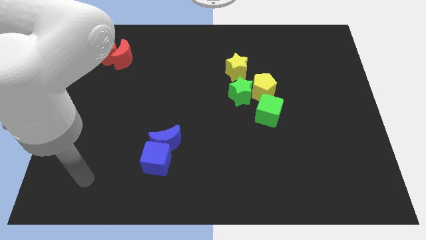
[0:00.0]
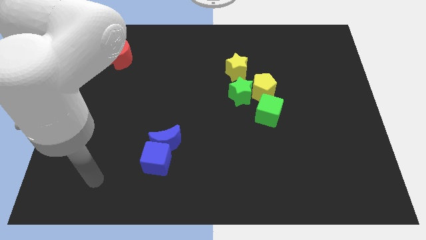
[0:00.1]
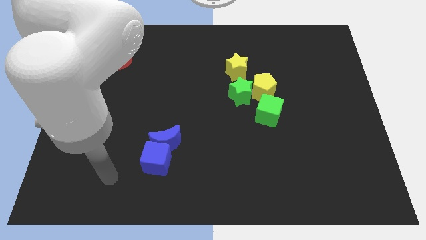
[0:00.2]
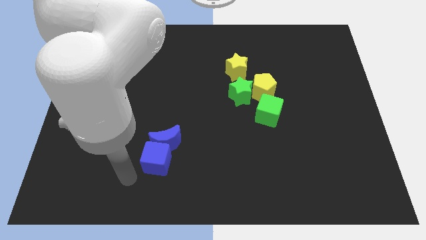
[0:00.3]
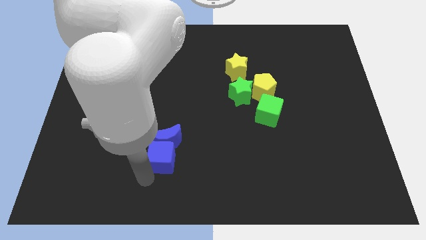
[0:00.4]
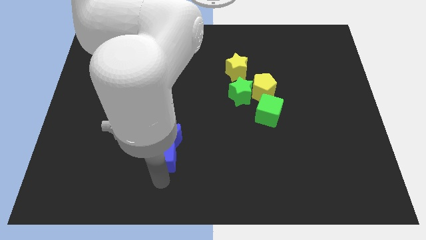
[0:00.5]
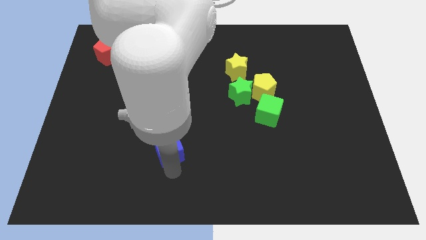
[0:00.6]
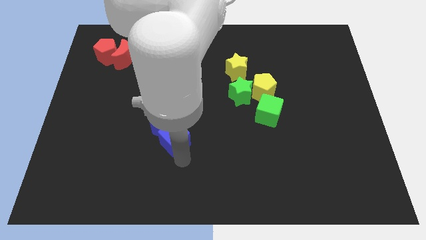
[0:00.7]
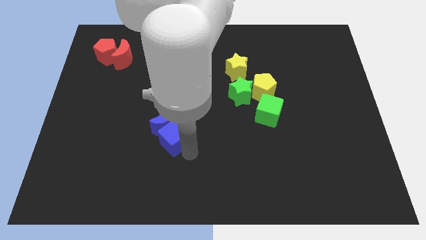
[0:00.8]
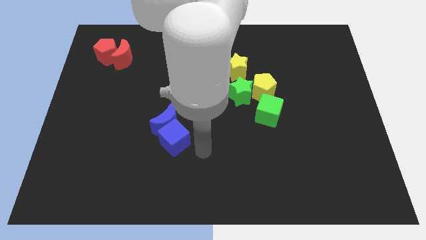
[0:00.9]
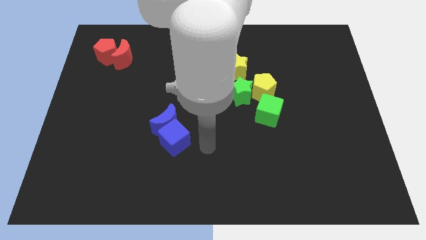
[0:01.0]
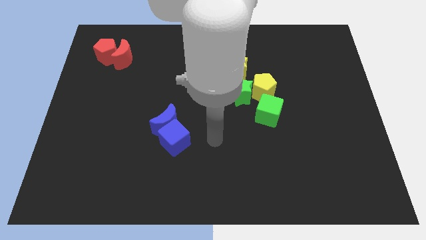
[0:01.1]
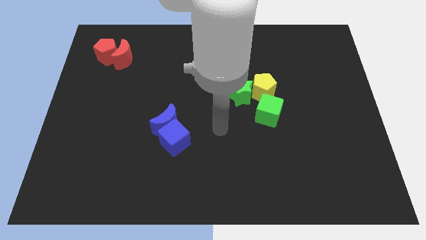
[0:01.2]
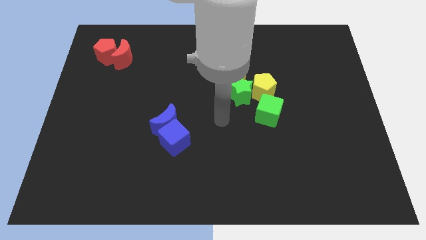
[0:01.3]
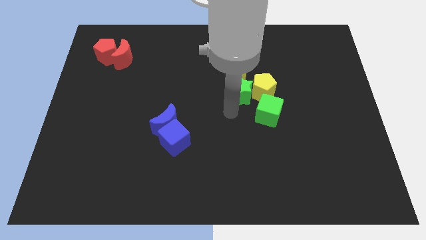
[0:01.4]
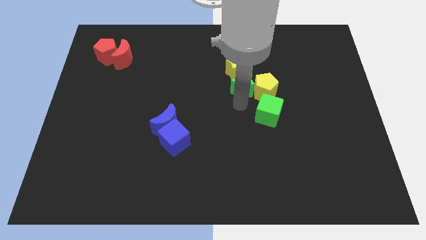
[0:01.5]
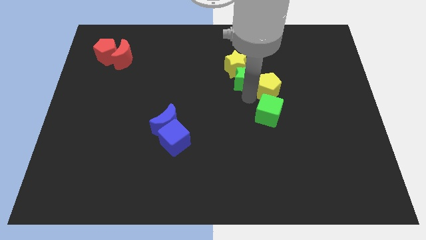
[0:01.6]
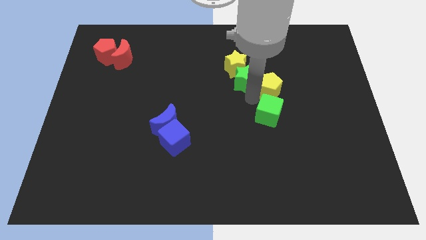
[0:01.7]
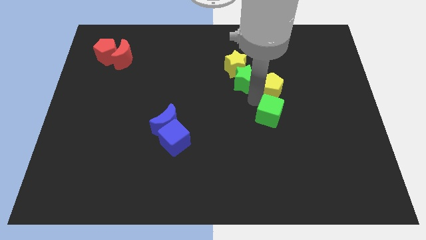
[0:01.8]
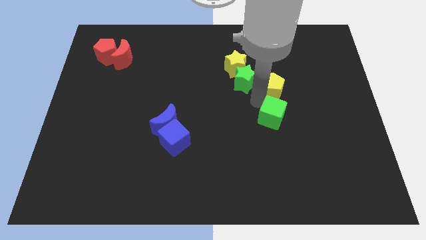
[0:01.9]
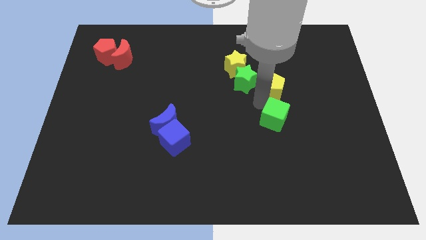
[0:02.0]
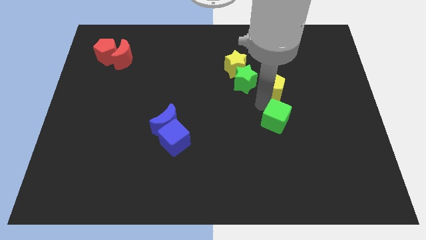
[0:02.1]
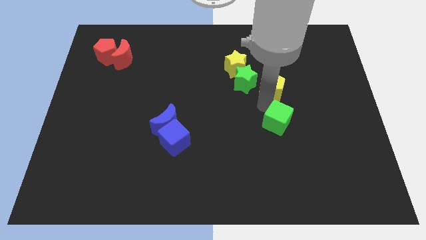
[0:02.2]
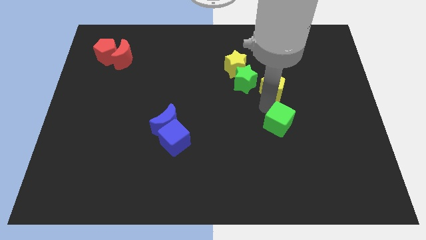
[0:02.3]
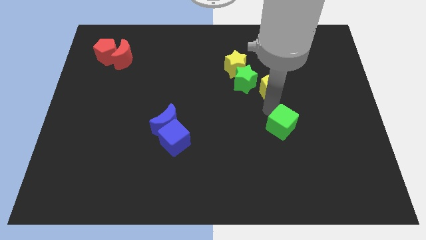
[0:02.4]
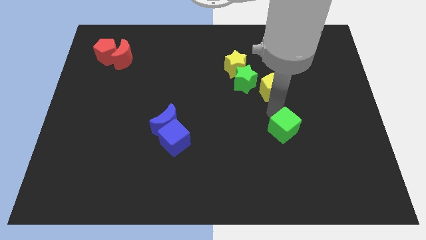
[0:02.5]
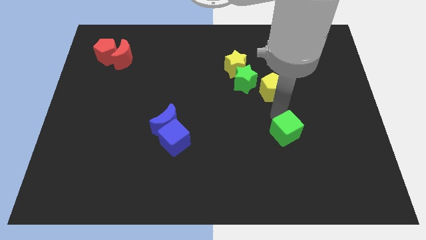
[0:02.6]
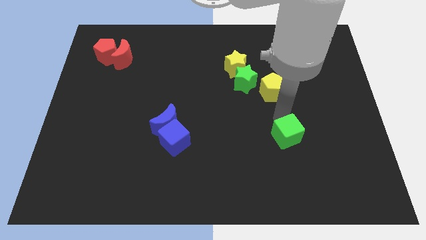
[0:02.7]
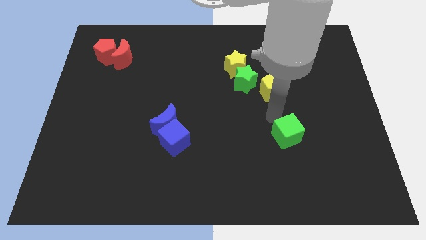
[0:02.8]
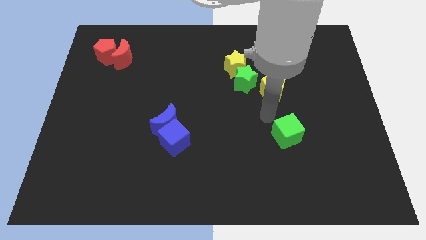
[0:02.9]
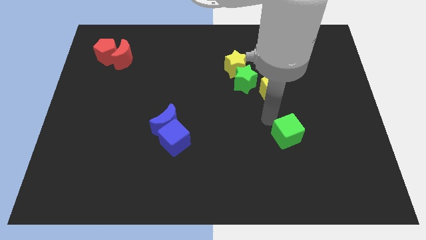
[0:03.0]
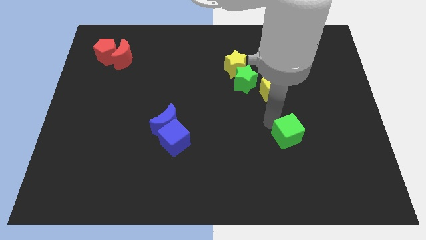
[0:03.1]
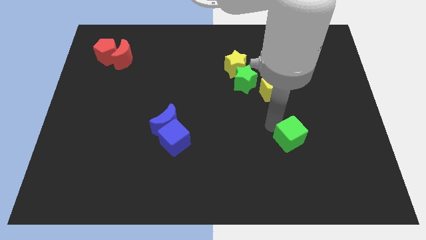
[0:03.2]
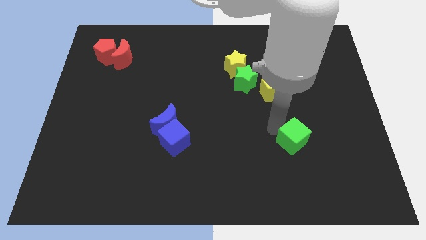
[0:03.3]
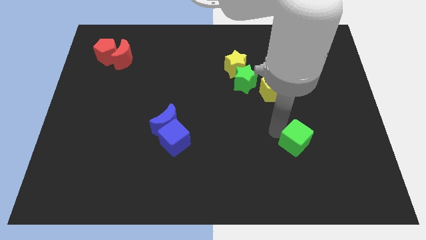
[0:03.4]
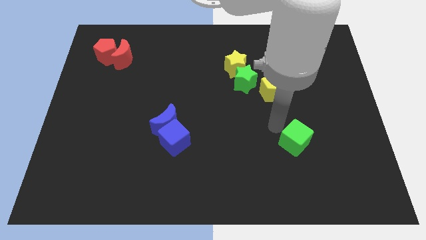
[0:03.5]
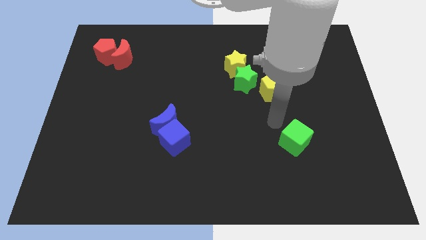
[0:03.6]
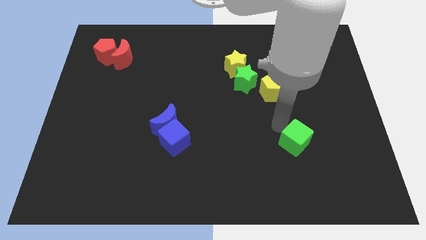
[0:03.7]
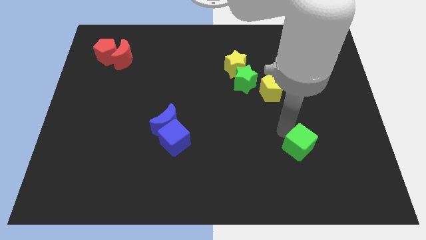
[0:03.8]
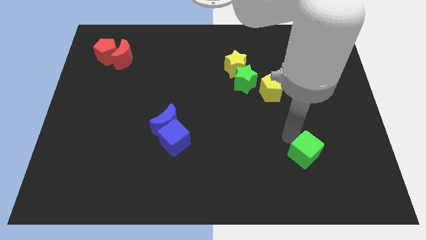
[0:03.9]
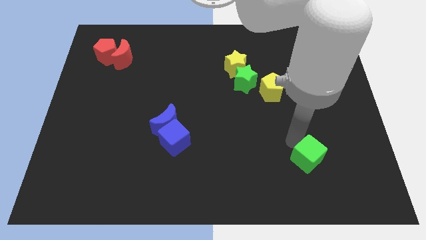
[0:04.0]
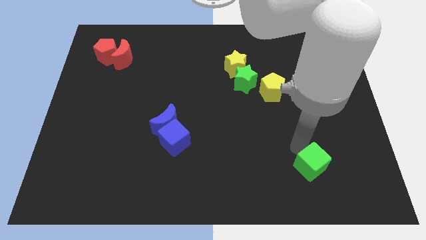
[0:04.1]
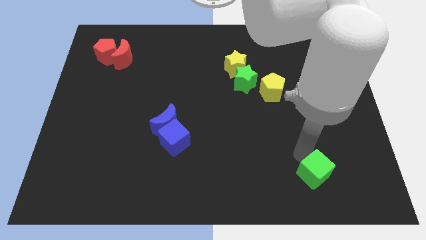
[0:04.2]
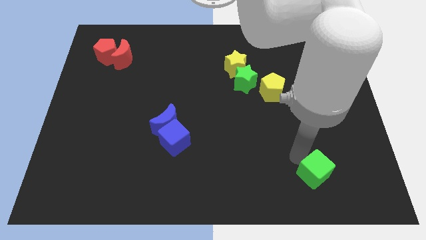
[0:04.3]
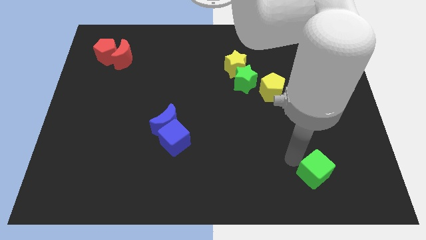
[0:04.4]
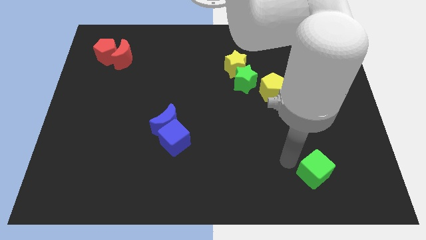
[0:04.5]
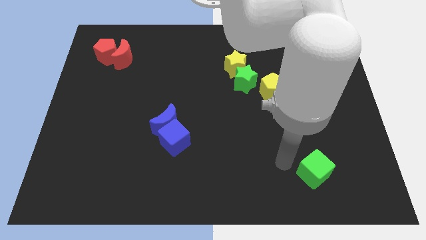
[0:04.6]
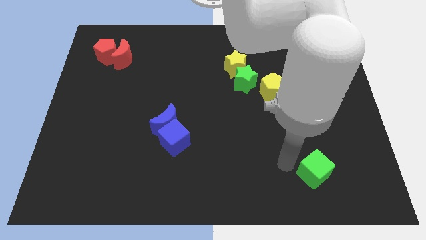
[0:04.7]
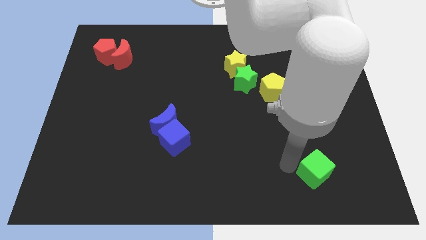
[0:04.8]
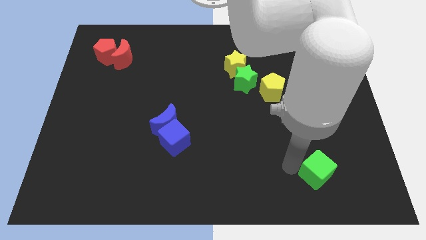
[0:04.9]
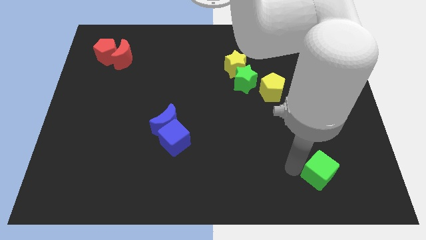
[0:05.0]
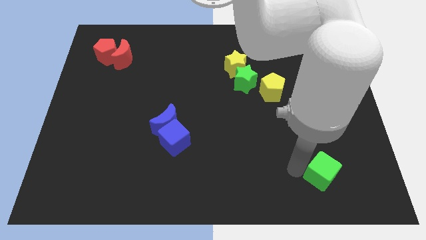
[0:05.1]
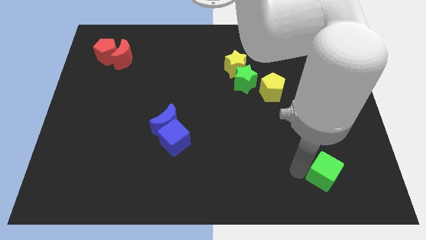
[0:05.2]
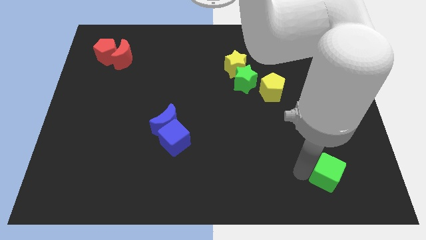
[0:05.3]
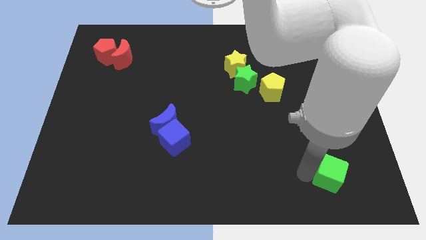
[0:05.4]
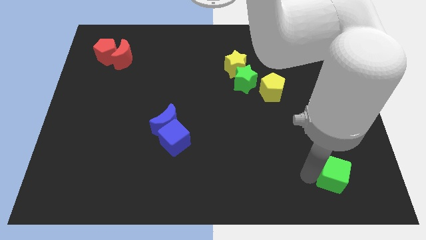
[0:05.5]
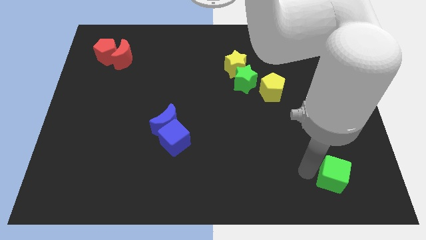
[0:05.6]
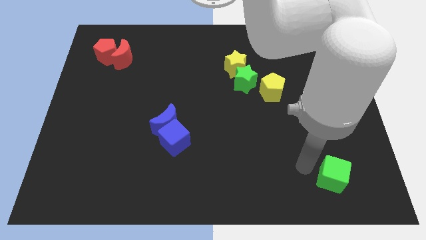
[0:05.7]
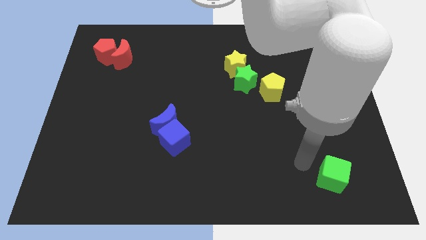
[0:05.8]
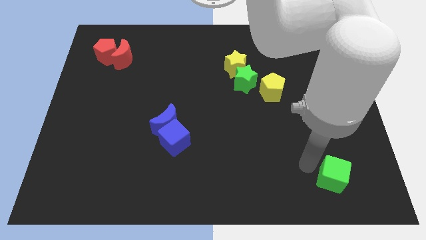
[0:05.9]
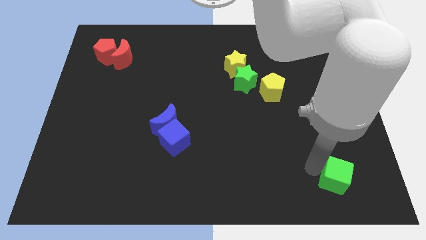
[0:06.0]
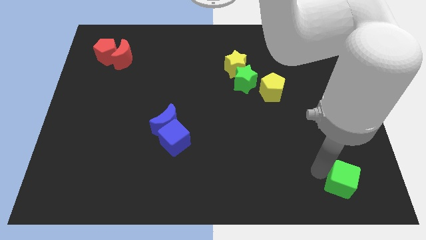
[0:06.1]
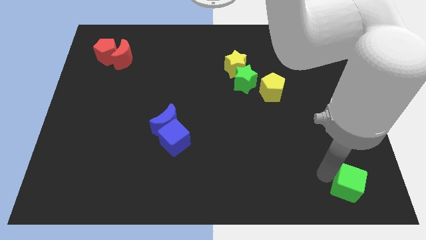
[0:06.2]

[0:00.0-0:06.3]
slide the green cube to the bottom right corner

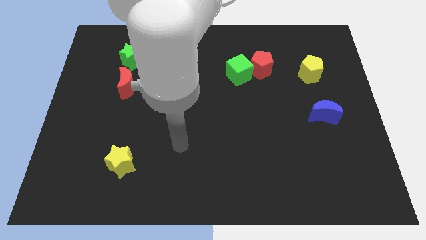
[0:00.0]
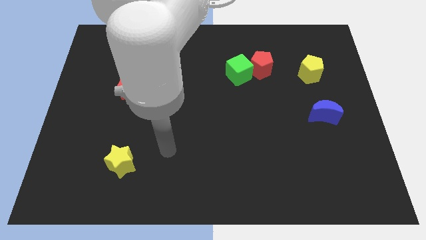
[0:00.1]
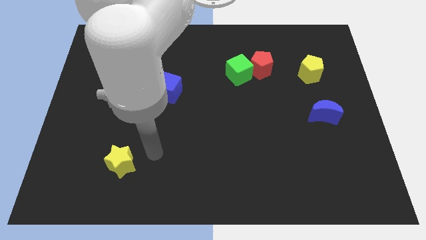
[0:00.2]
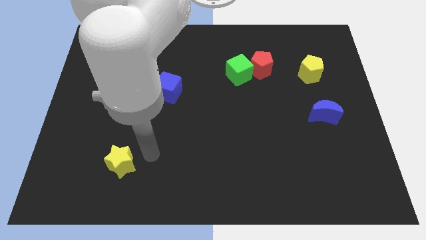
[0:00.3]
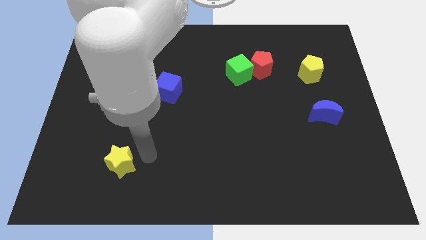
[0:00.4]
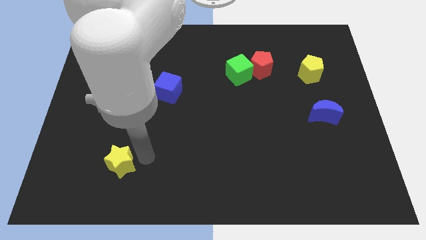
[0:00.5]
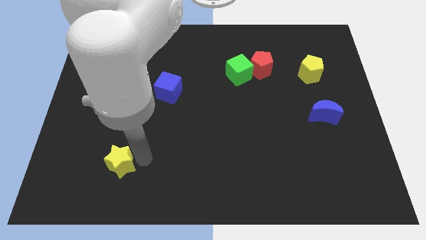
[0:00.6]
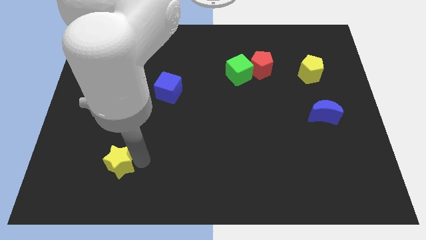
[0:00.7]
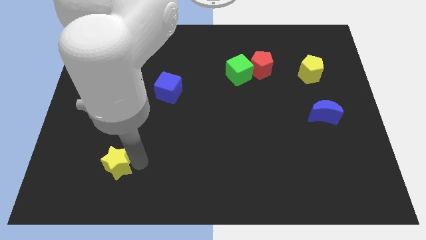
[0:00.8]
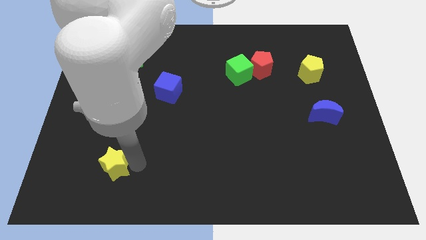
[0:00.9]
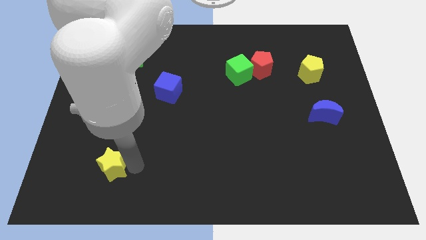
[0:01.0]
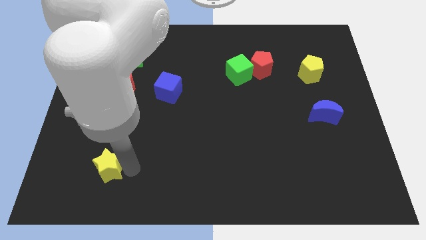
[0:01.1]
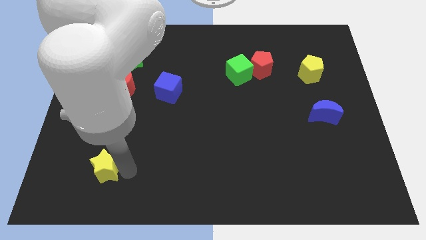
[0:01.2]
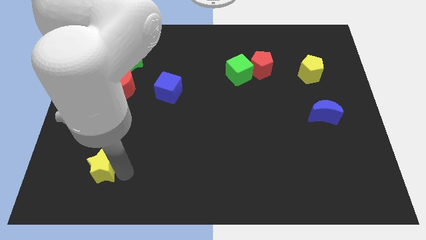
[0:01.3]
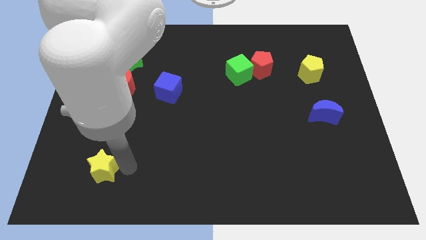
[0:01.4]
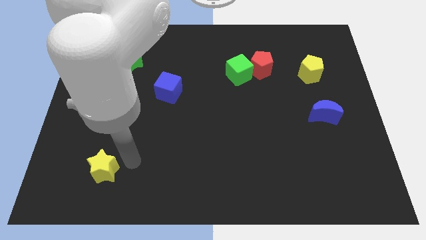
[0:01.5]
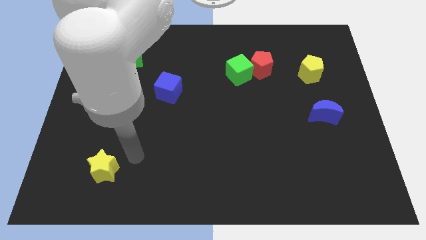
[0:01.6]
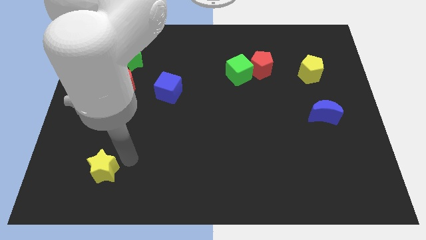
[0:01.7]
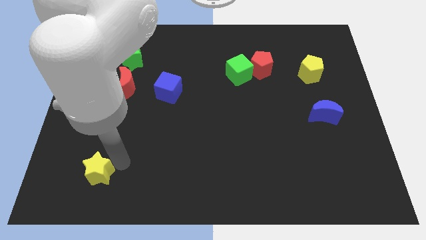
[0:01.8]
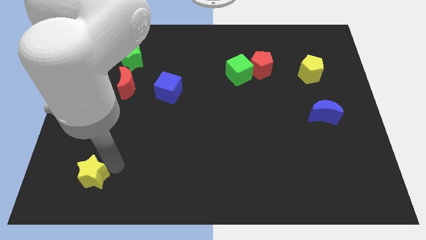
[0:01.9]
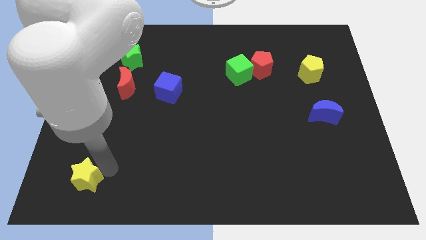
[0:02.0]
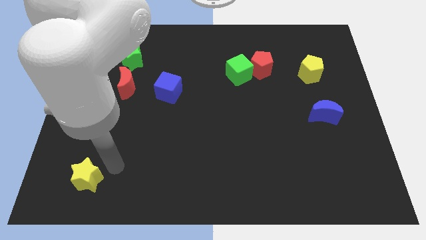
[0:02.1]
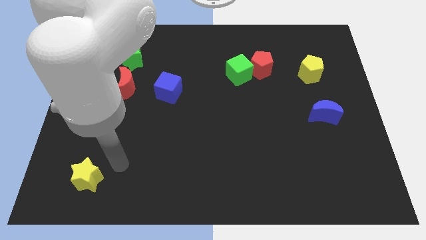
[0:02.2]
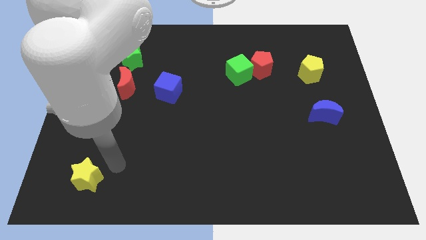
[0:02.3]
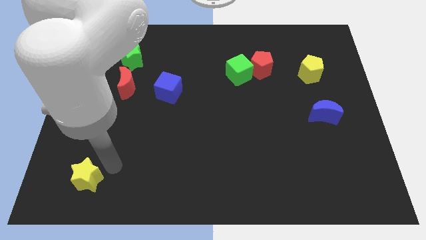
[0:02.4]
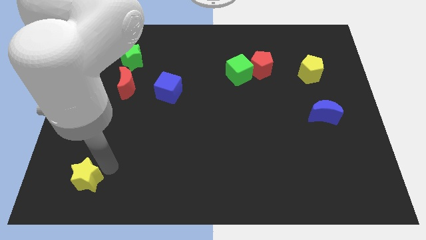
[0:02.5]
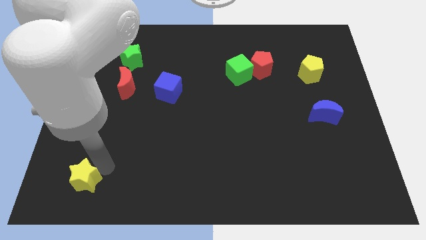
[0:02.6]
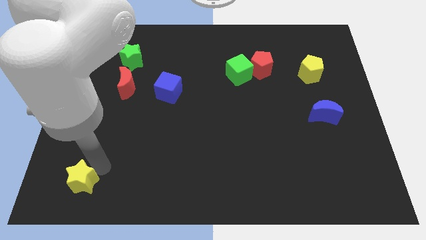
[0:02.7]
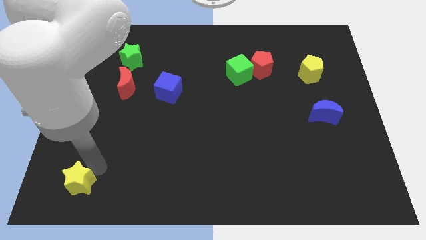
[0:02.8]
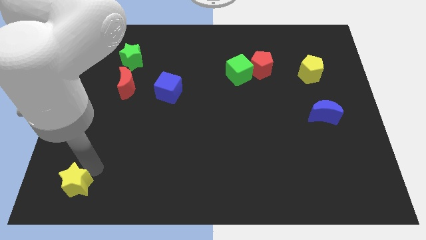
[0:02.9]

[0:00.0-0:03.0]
slide the yellow star to the lower left corner
